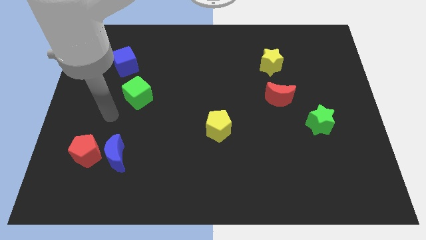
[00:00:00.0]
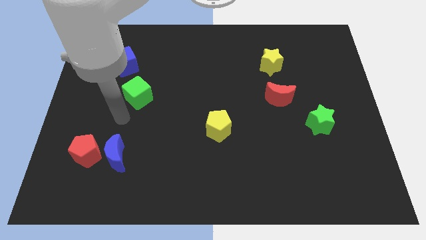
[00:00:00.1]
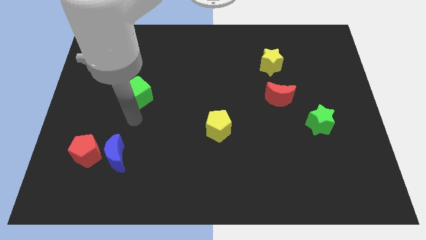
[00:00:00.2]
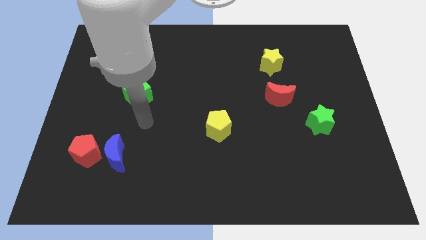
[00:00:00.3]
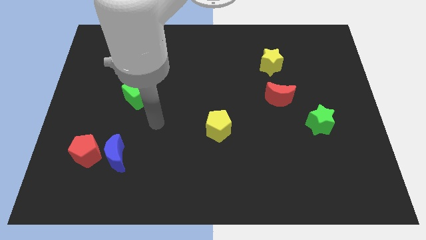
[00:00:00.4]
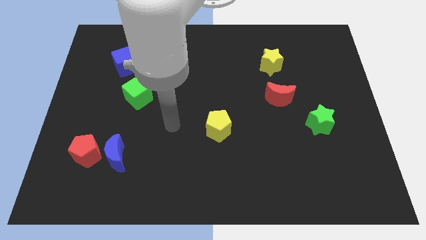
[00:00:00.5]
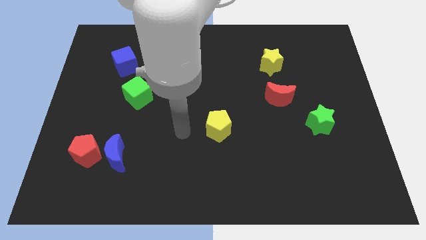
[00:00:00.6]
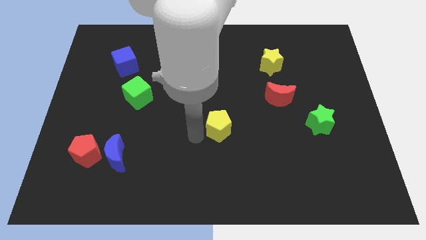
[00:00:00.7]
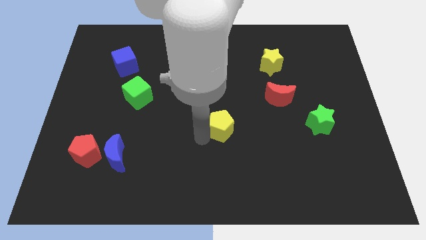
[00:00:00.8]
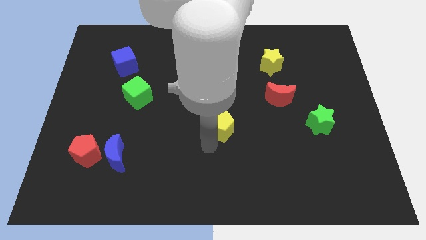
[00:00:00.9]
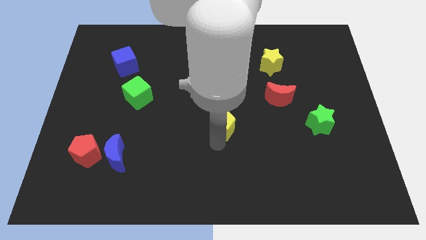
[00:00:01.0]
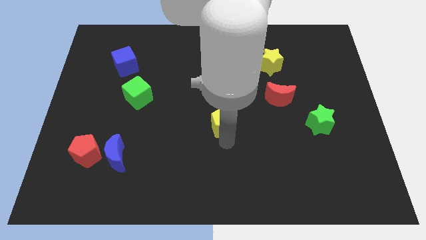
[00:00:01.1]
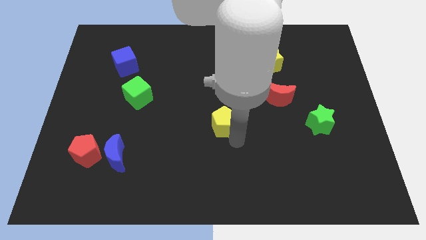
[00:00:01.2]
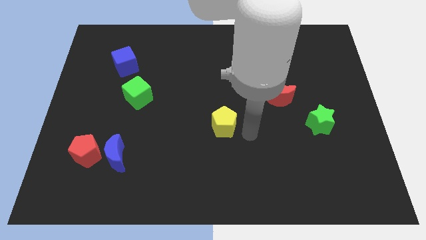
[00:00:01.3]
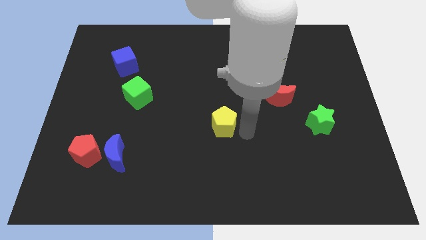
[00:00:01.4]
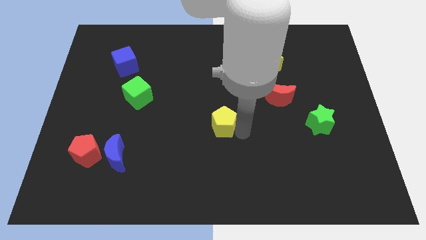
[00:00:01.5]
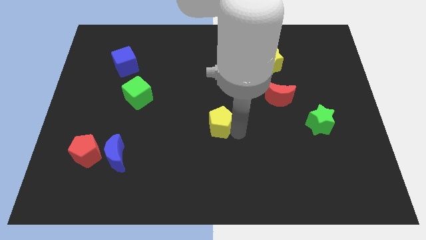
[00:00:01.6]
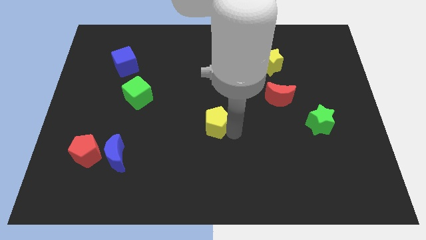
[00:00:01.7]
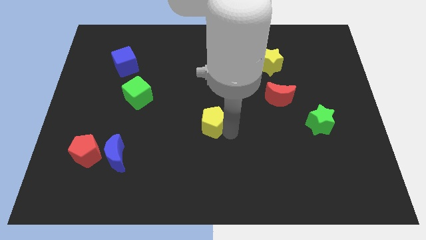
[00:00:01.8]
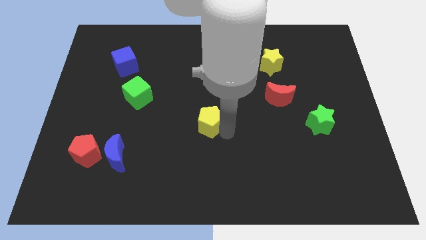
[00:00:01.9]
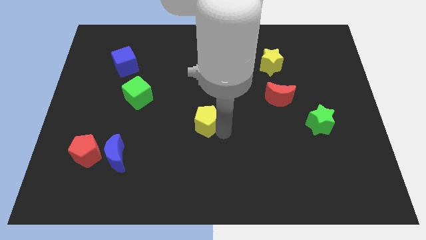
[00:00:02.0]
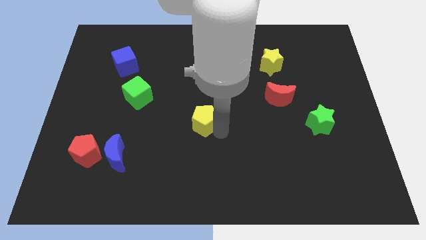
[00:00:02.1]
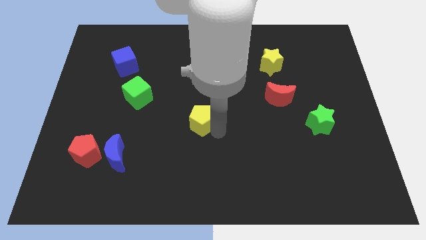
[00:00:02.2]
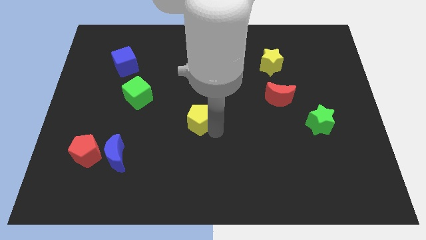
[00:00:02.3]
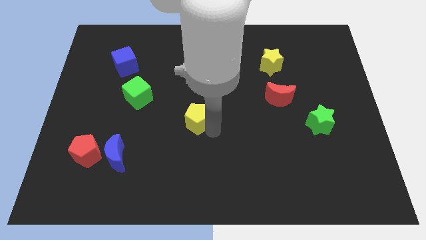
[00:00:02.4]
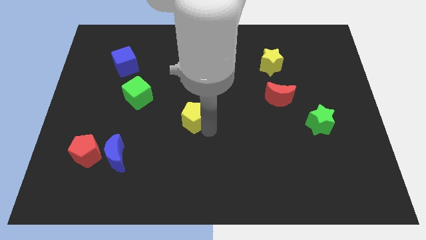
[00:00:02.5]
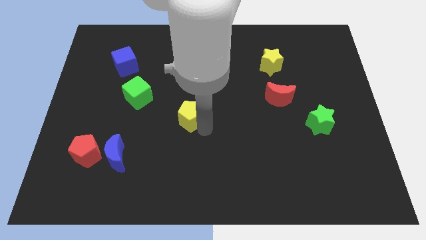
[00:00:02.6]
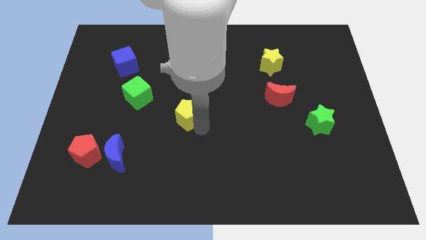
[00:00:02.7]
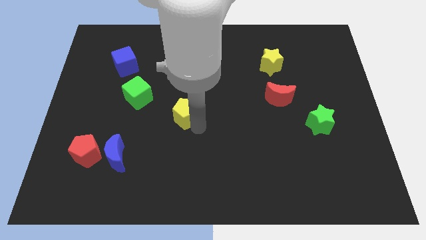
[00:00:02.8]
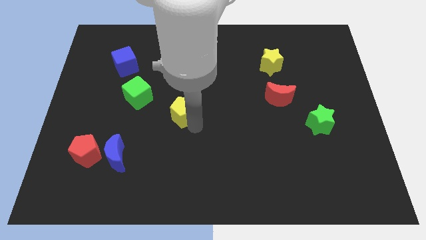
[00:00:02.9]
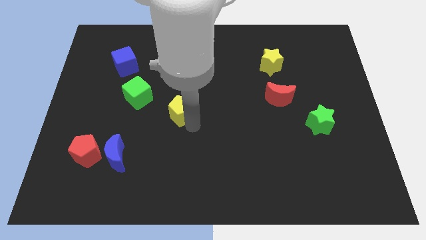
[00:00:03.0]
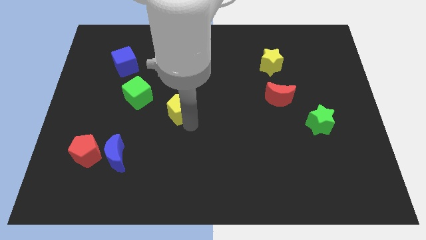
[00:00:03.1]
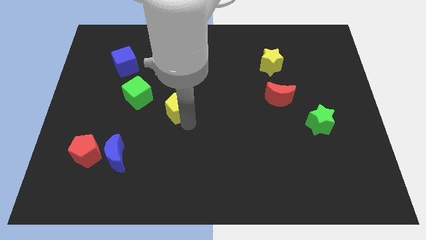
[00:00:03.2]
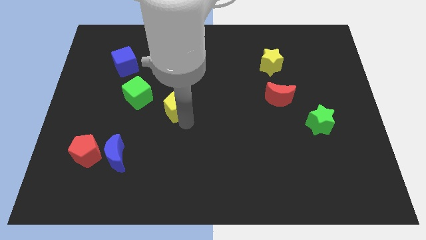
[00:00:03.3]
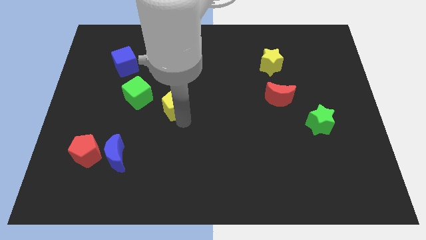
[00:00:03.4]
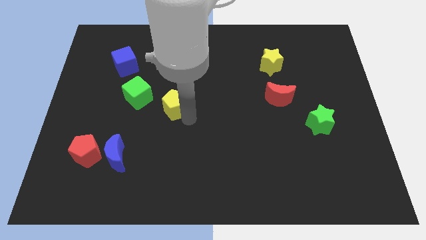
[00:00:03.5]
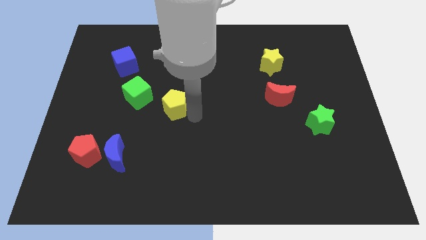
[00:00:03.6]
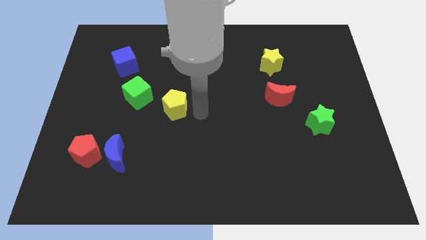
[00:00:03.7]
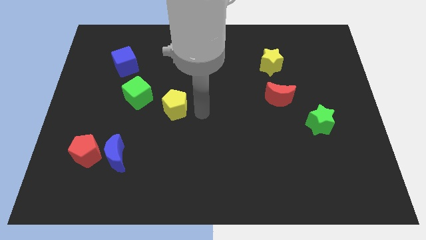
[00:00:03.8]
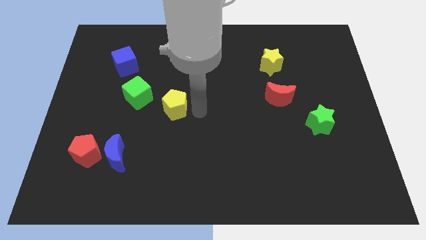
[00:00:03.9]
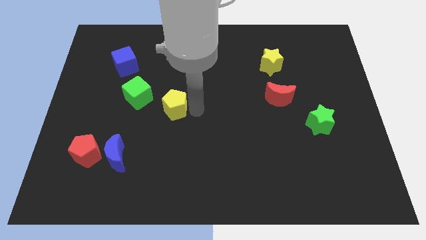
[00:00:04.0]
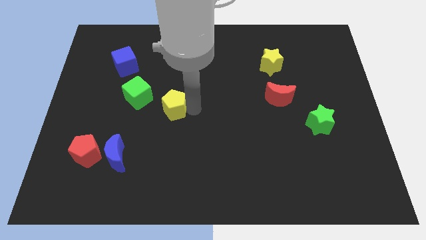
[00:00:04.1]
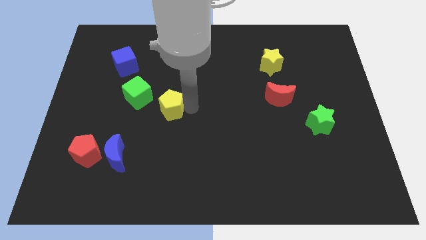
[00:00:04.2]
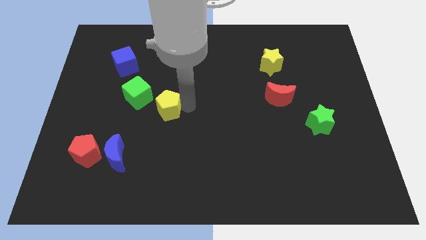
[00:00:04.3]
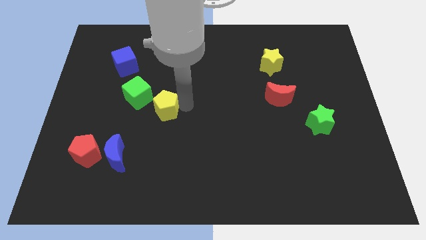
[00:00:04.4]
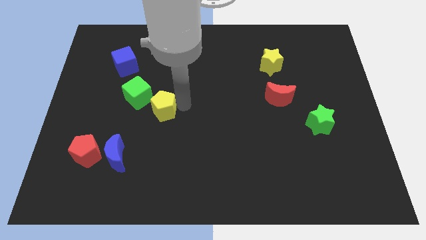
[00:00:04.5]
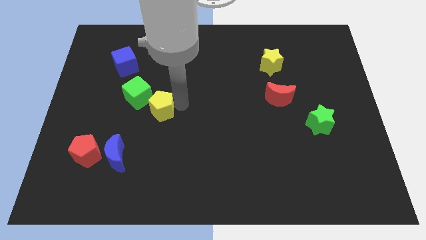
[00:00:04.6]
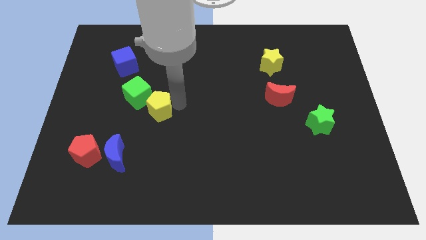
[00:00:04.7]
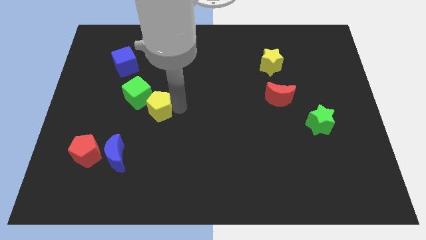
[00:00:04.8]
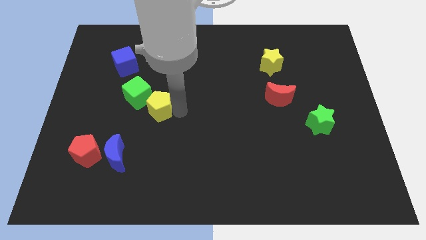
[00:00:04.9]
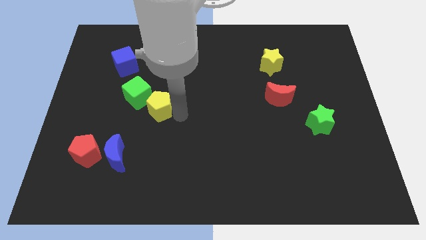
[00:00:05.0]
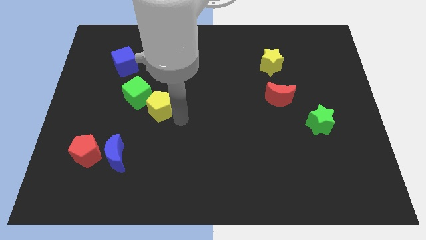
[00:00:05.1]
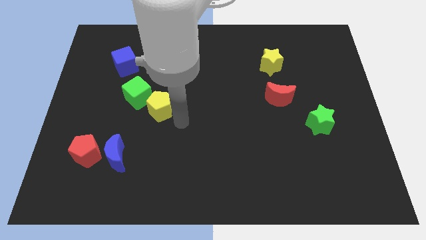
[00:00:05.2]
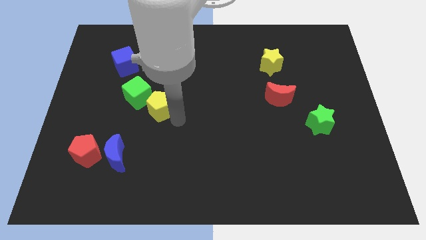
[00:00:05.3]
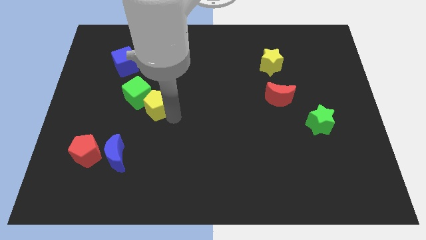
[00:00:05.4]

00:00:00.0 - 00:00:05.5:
slide the yellow pentagon next to the green cube
